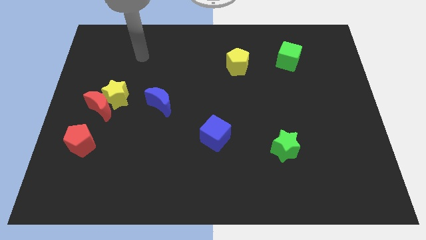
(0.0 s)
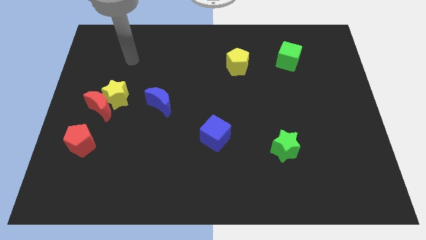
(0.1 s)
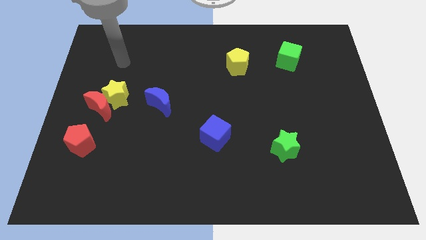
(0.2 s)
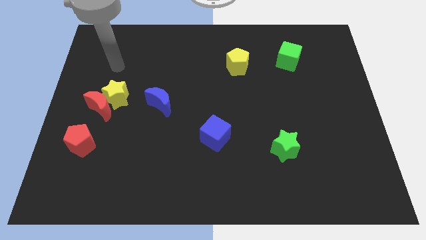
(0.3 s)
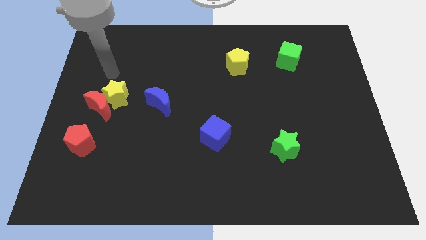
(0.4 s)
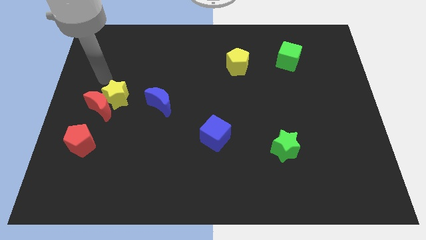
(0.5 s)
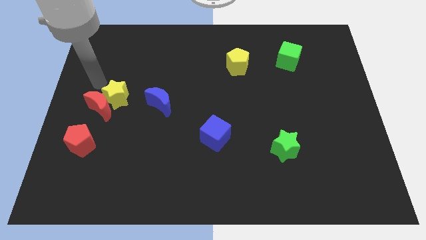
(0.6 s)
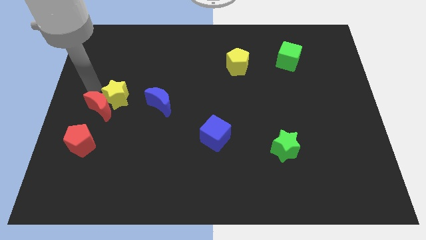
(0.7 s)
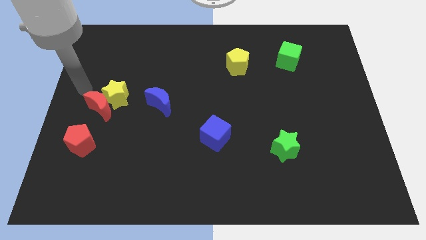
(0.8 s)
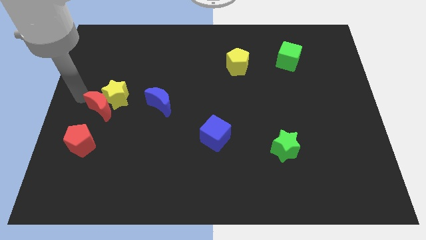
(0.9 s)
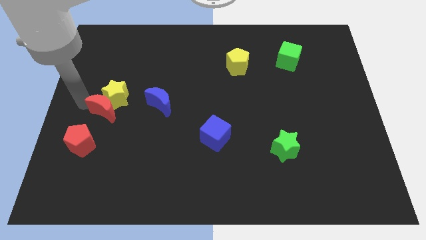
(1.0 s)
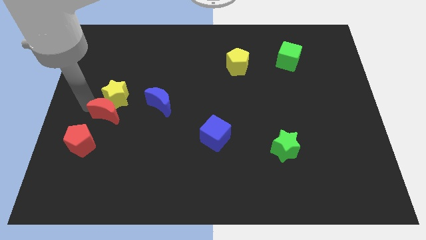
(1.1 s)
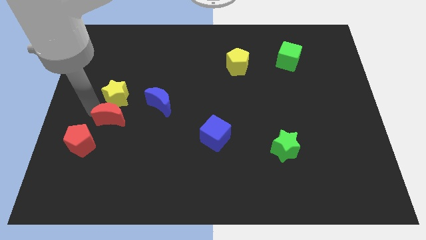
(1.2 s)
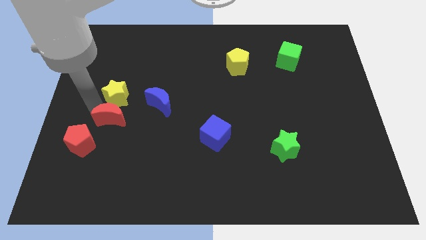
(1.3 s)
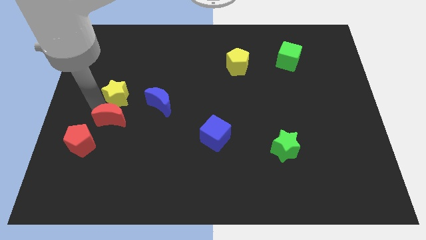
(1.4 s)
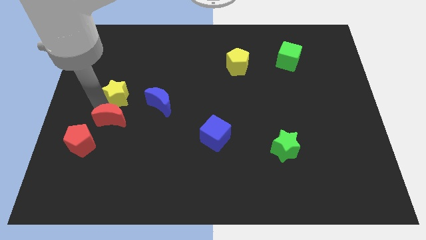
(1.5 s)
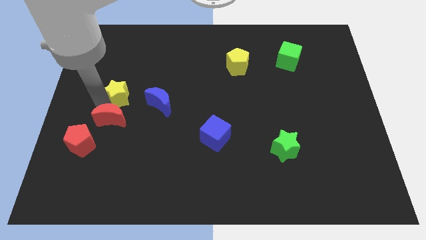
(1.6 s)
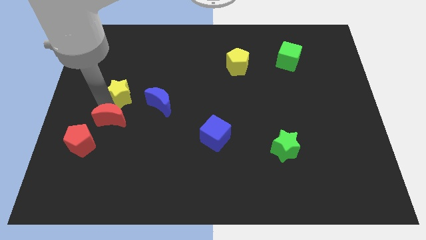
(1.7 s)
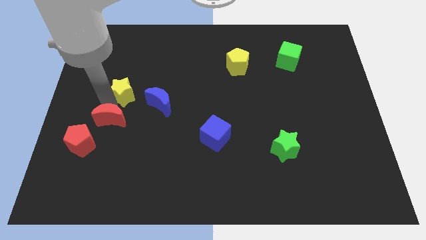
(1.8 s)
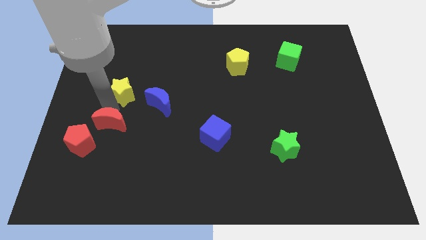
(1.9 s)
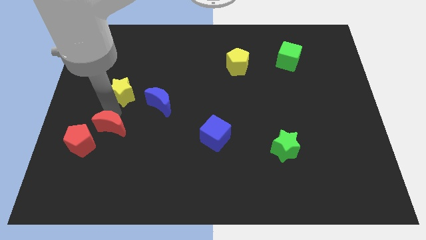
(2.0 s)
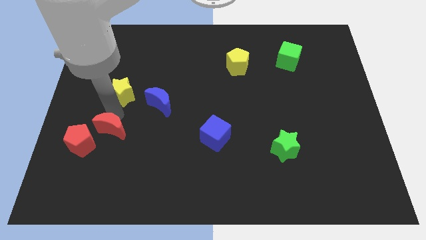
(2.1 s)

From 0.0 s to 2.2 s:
pull the yellow star apart from the red moon

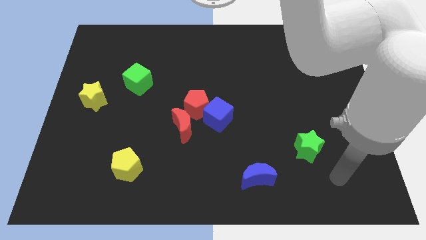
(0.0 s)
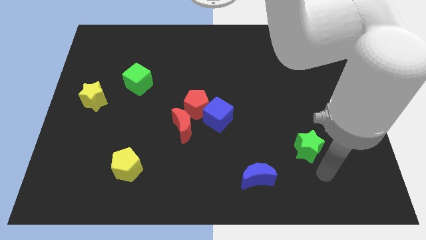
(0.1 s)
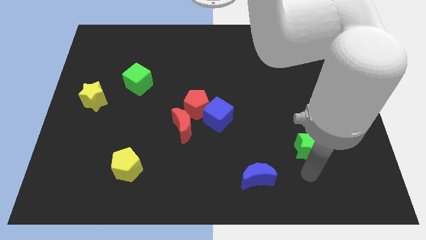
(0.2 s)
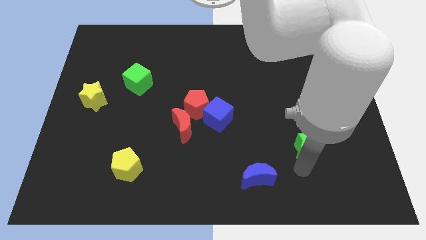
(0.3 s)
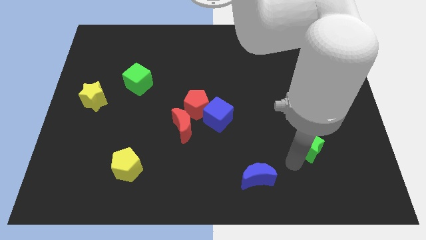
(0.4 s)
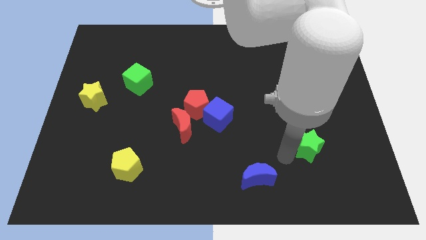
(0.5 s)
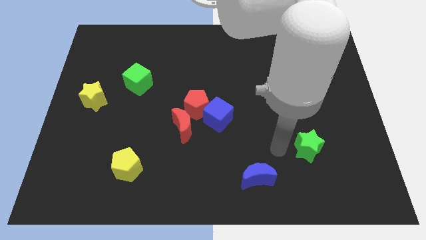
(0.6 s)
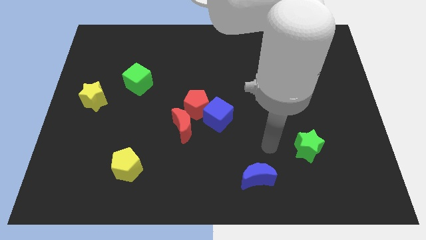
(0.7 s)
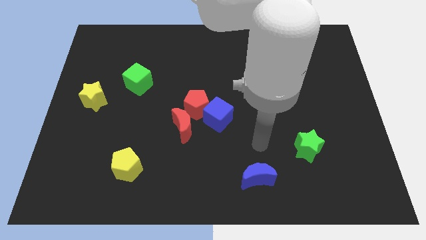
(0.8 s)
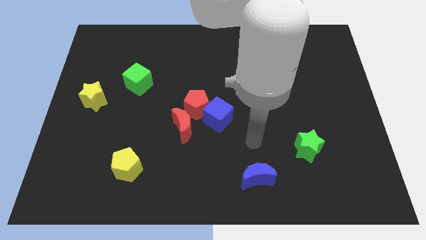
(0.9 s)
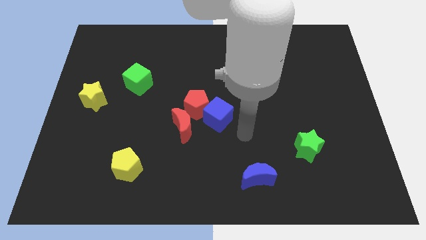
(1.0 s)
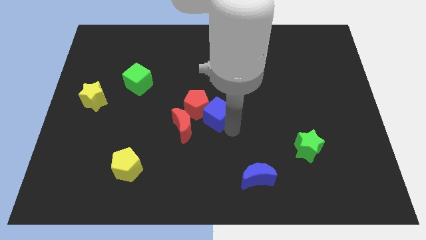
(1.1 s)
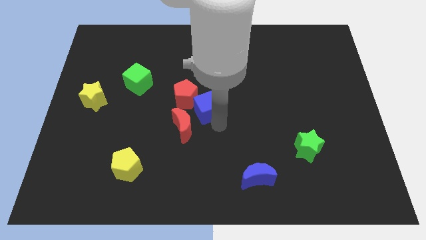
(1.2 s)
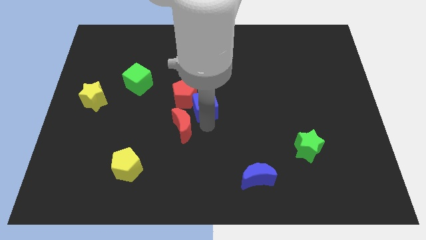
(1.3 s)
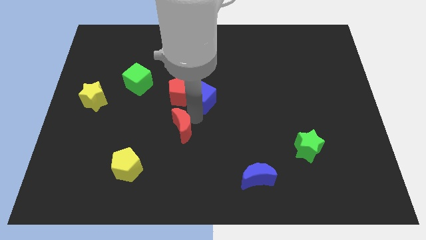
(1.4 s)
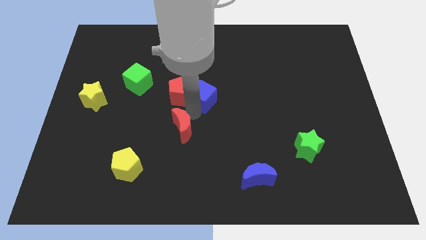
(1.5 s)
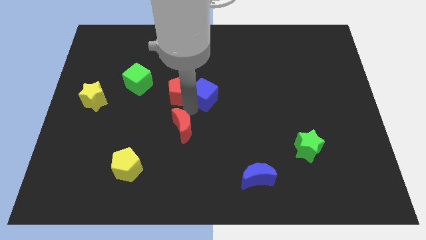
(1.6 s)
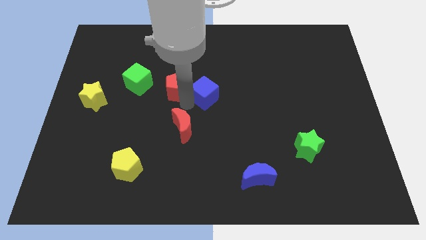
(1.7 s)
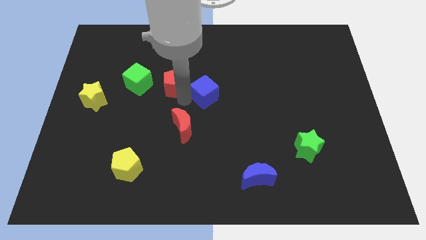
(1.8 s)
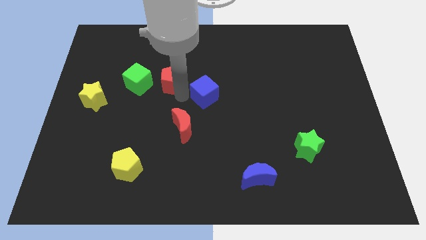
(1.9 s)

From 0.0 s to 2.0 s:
pull the red pentagon apart from the blue cube and red moon

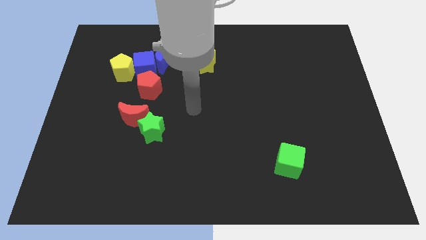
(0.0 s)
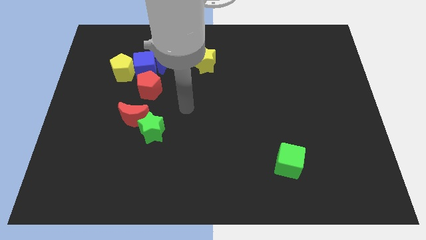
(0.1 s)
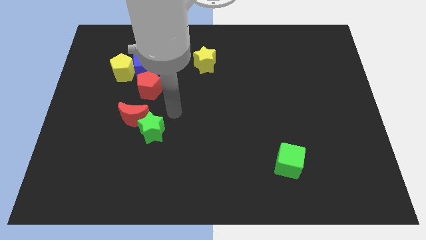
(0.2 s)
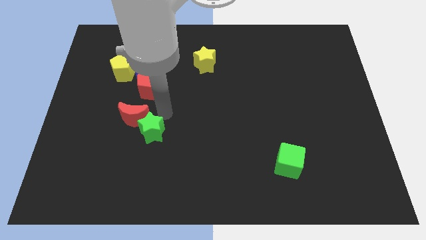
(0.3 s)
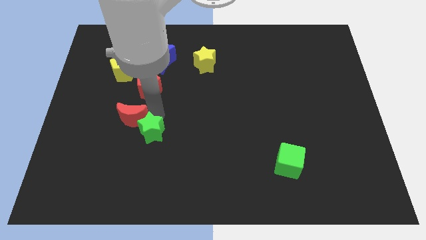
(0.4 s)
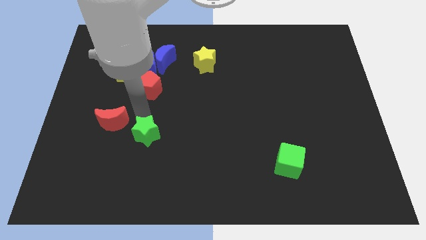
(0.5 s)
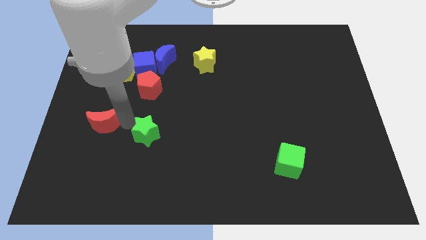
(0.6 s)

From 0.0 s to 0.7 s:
separate the green star from the red moon

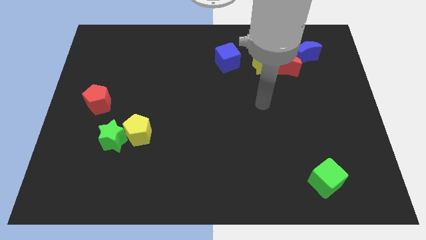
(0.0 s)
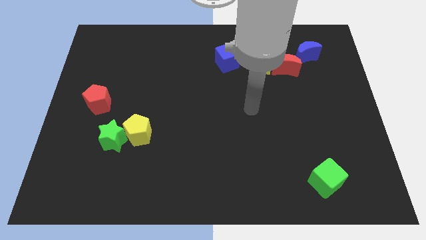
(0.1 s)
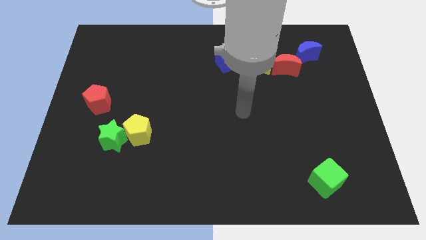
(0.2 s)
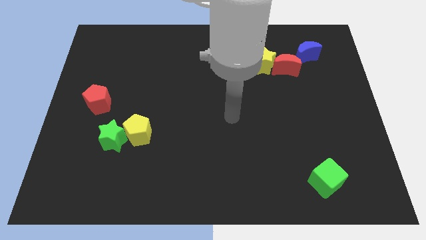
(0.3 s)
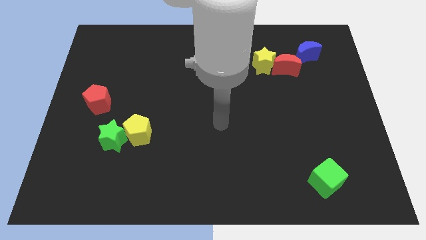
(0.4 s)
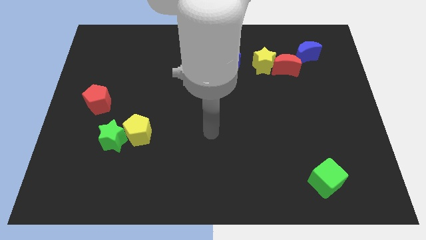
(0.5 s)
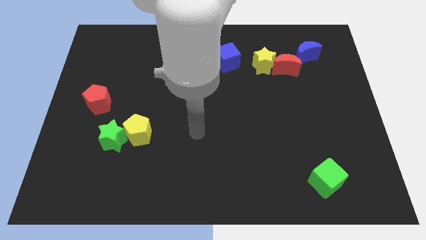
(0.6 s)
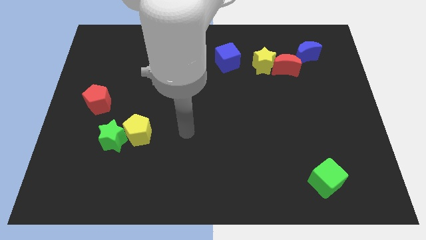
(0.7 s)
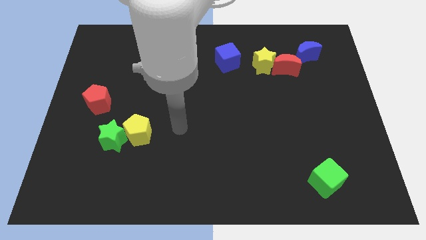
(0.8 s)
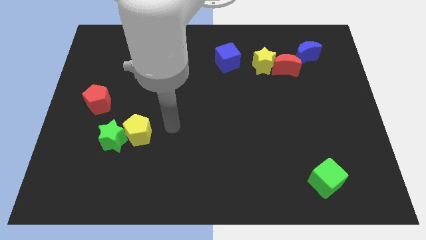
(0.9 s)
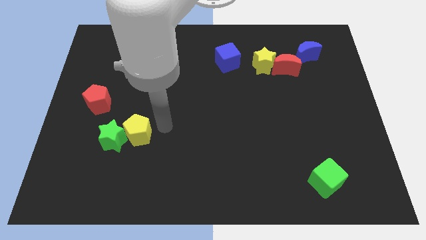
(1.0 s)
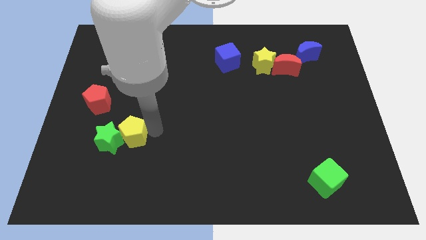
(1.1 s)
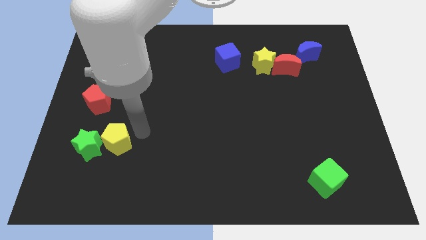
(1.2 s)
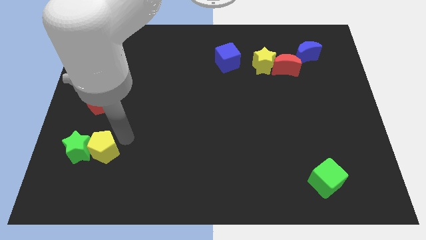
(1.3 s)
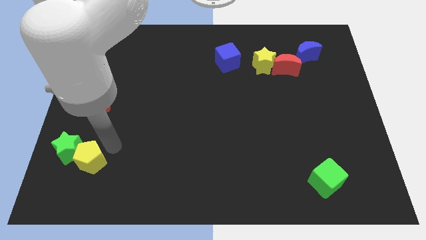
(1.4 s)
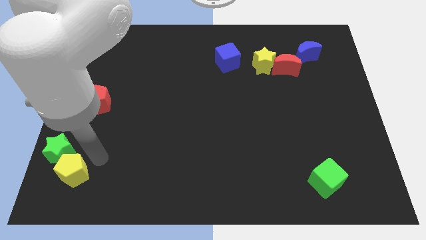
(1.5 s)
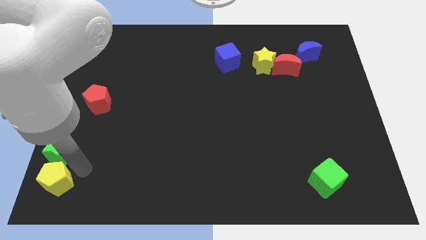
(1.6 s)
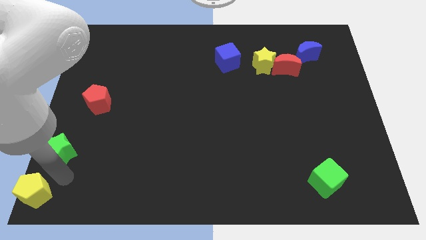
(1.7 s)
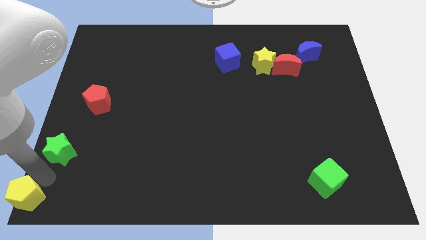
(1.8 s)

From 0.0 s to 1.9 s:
move the green star away from the yellow pentagon

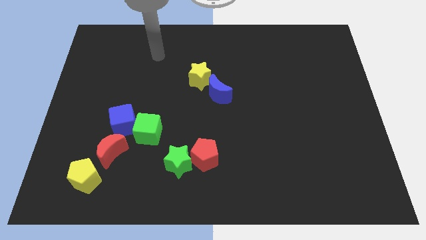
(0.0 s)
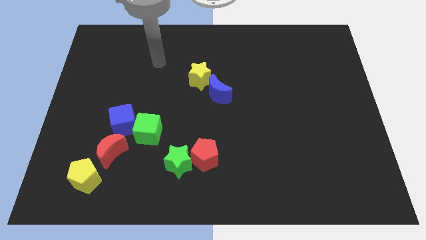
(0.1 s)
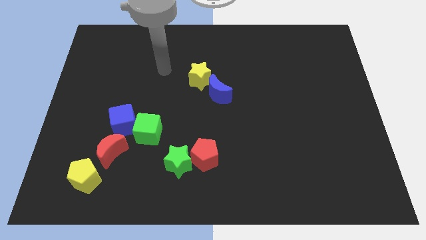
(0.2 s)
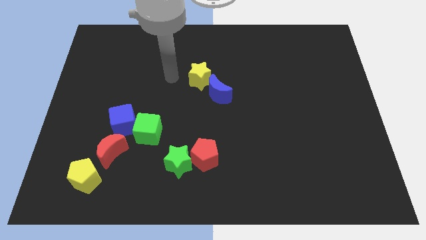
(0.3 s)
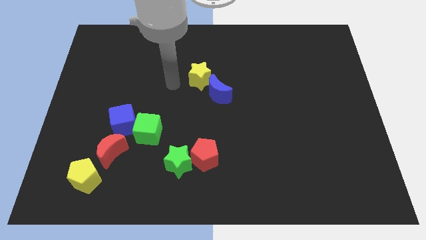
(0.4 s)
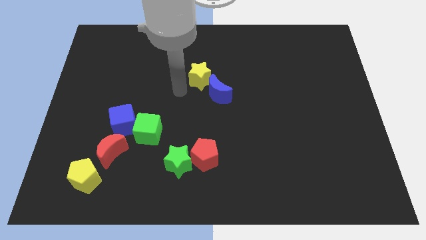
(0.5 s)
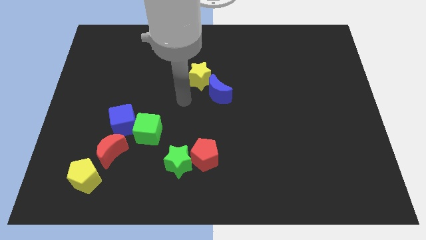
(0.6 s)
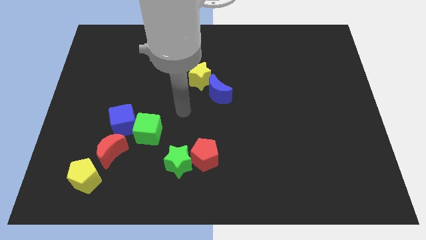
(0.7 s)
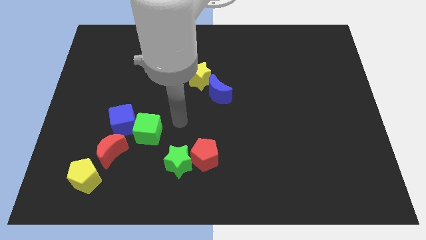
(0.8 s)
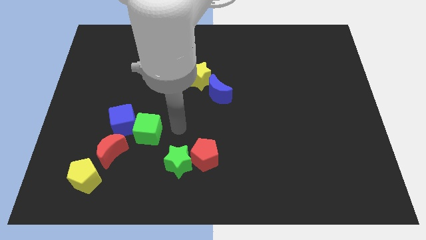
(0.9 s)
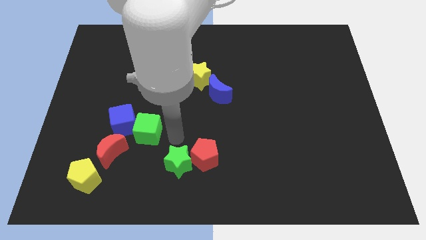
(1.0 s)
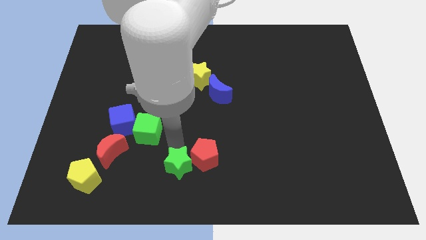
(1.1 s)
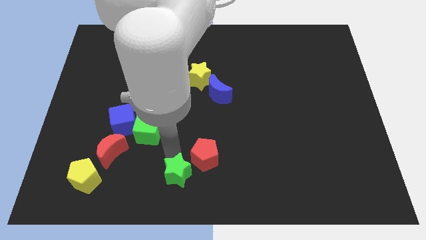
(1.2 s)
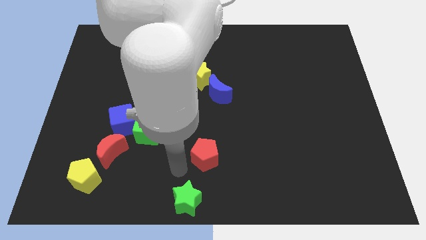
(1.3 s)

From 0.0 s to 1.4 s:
pull the red pentagon apart from the green star

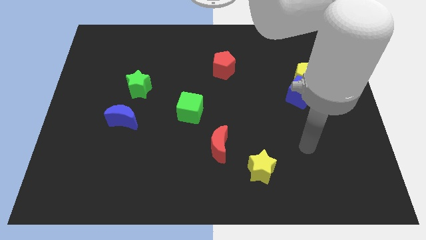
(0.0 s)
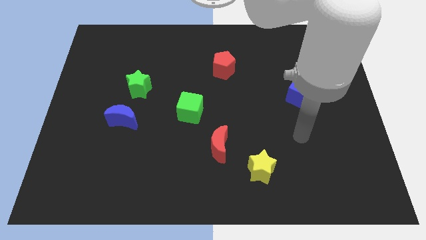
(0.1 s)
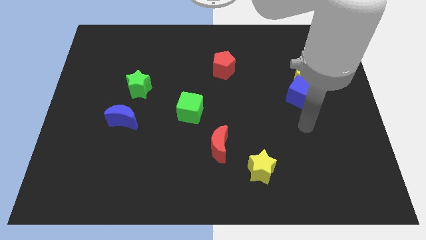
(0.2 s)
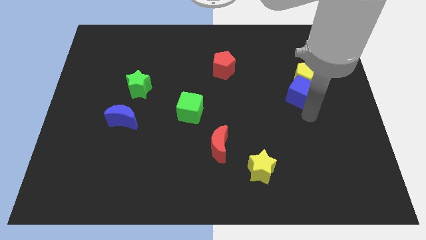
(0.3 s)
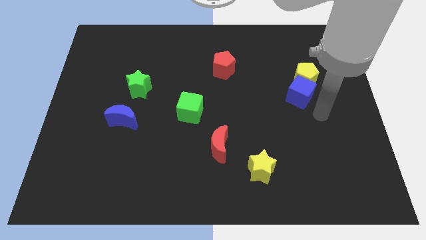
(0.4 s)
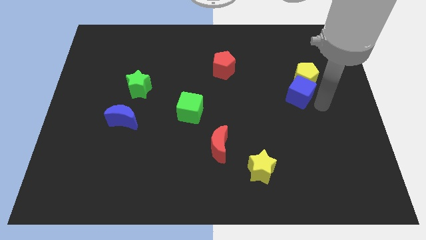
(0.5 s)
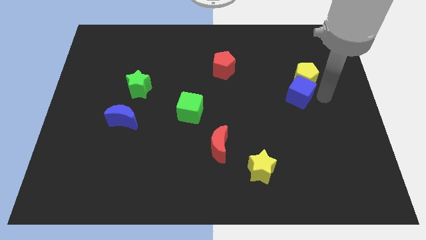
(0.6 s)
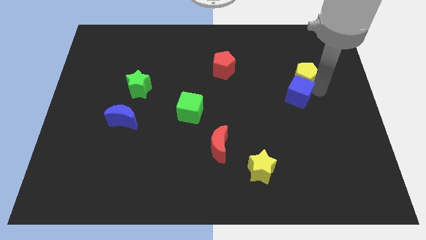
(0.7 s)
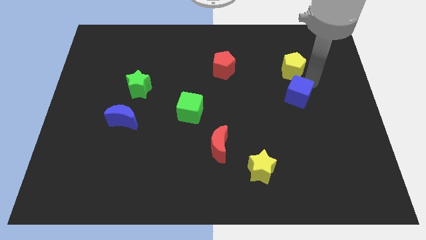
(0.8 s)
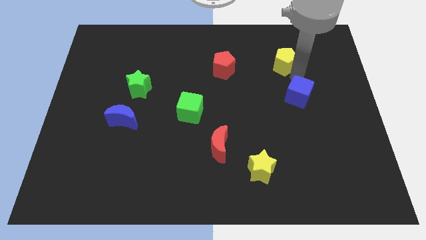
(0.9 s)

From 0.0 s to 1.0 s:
move the blue cube away from the yellow pentagon

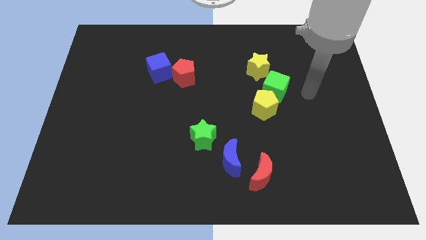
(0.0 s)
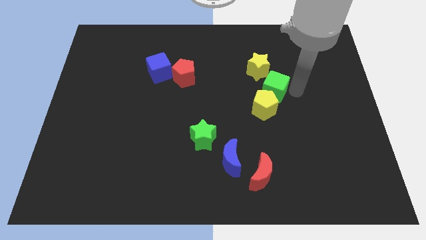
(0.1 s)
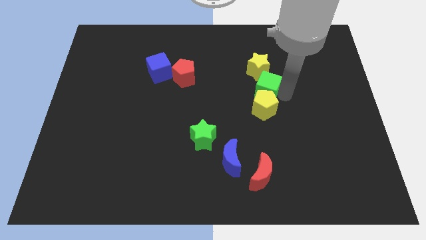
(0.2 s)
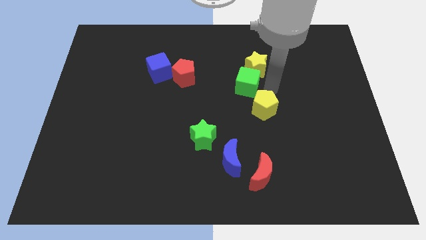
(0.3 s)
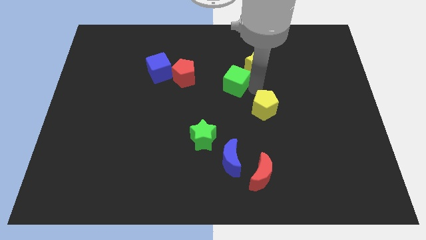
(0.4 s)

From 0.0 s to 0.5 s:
move the yellow pentagon away from the green cube
